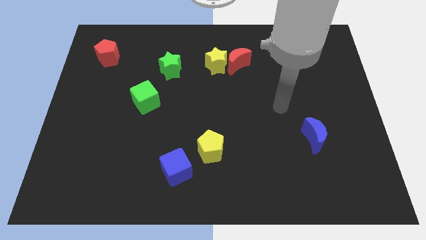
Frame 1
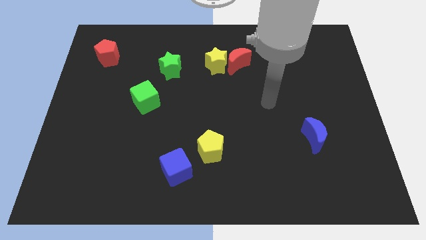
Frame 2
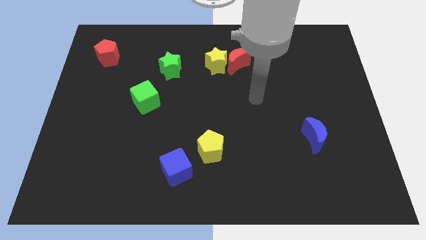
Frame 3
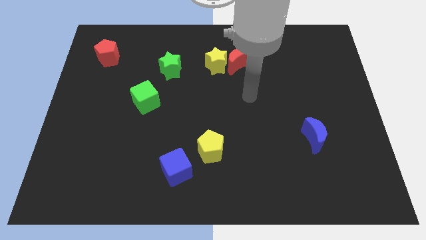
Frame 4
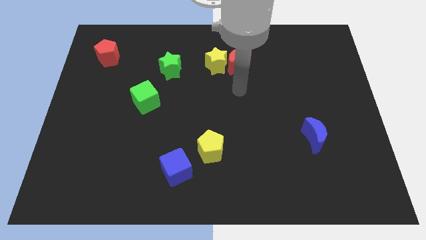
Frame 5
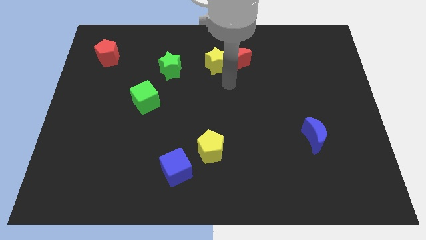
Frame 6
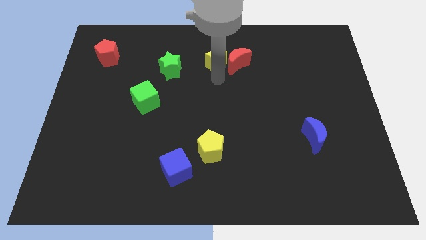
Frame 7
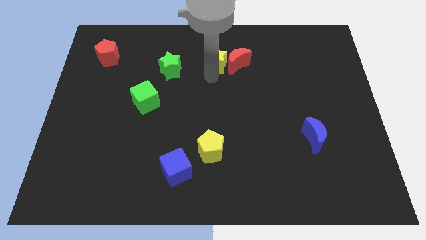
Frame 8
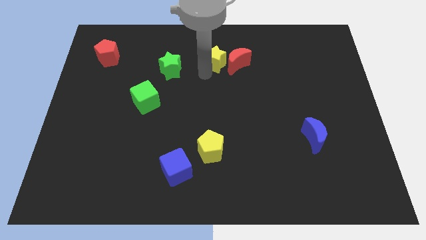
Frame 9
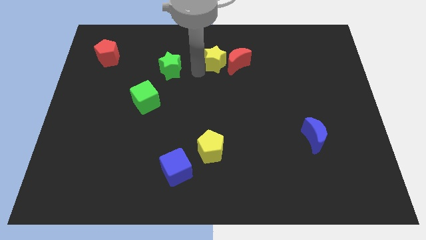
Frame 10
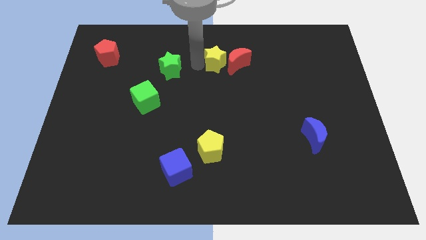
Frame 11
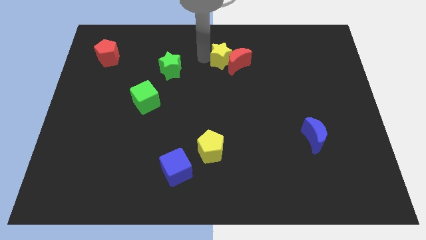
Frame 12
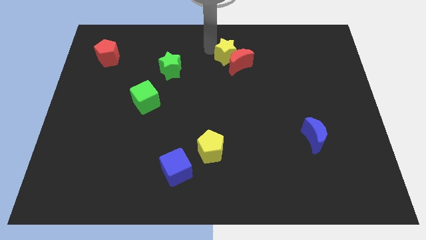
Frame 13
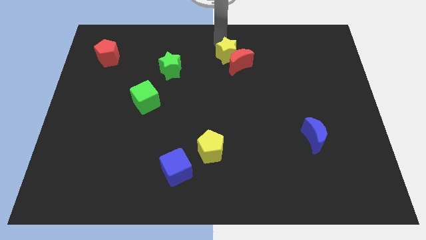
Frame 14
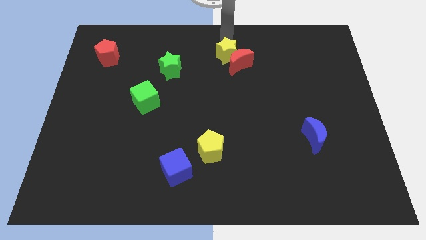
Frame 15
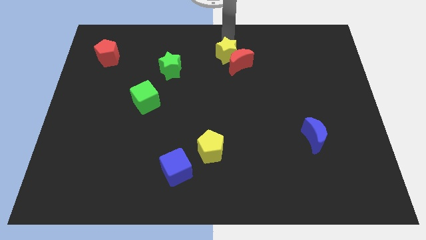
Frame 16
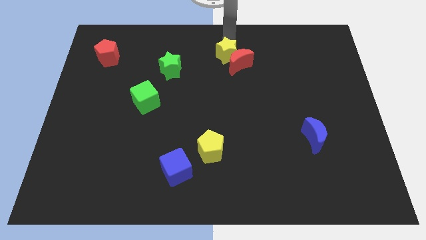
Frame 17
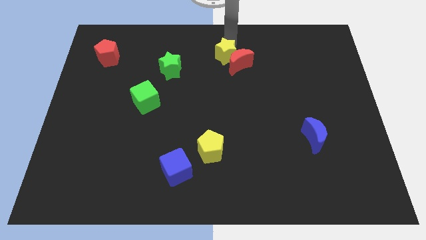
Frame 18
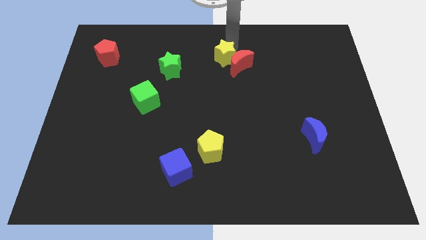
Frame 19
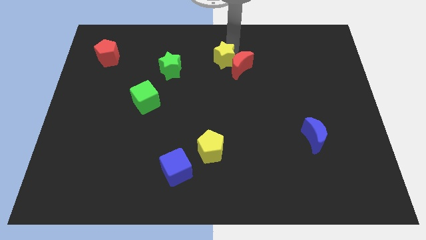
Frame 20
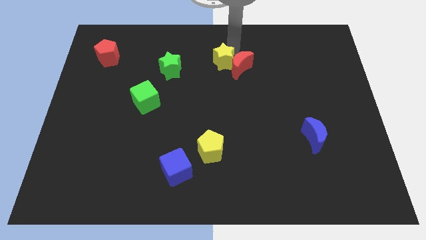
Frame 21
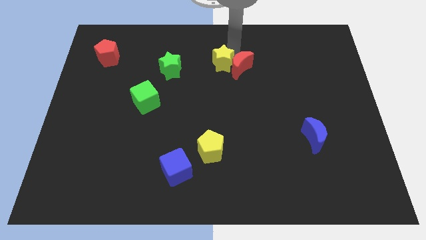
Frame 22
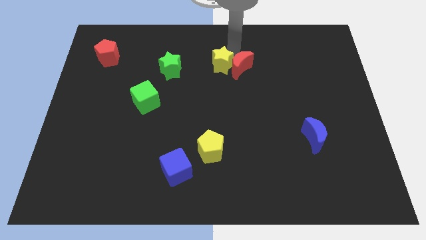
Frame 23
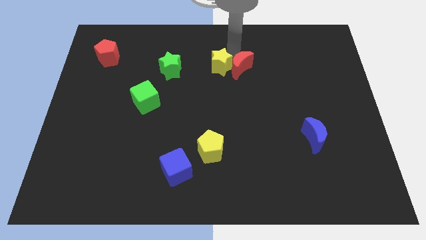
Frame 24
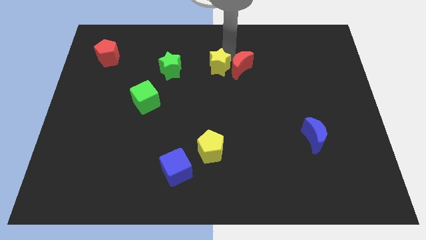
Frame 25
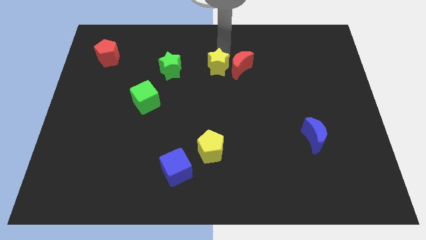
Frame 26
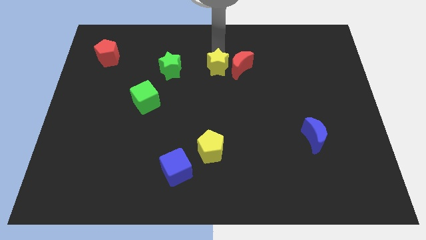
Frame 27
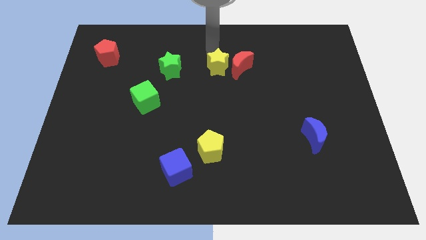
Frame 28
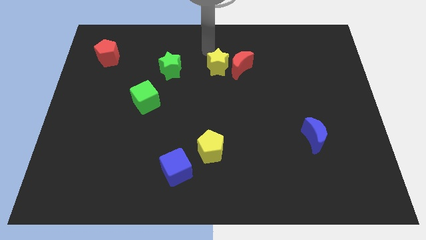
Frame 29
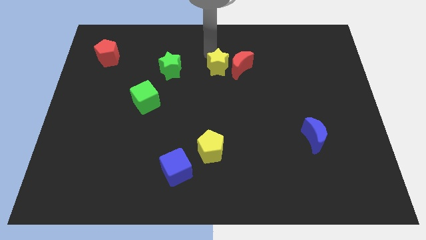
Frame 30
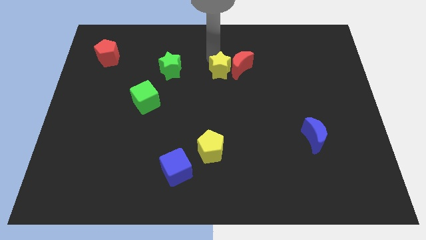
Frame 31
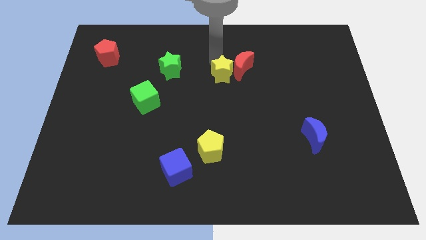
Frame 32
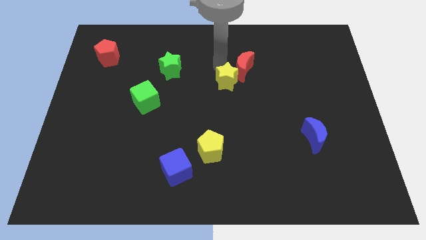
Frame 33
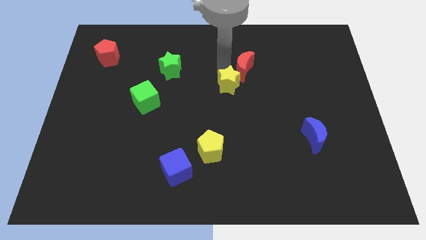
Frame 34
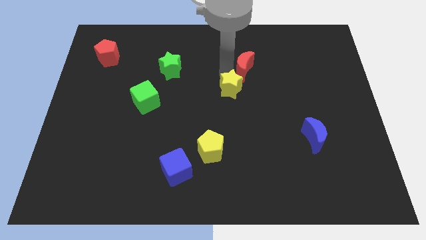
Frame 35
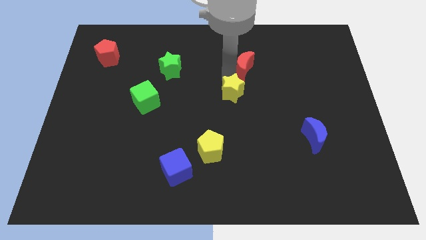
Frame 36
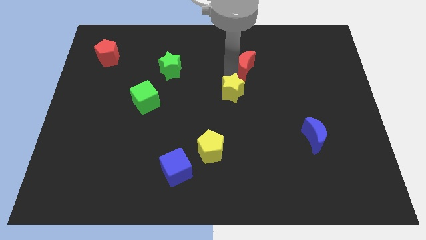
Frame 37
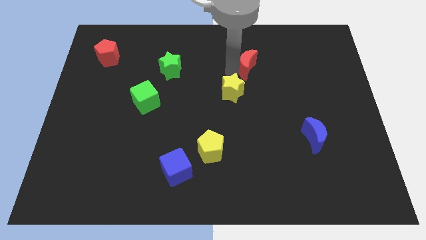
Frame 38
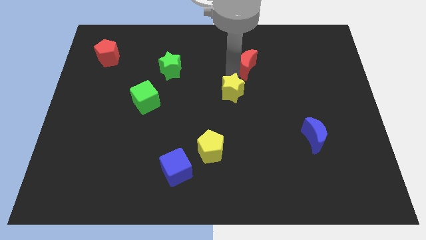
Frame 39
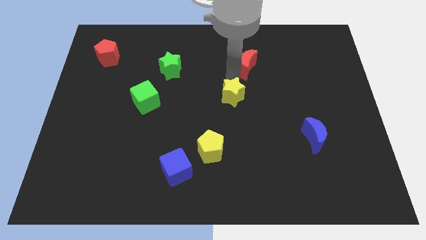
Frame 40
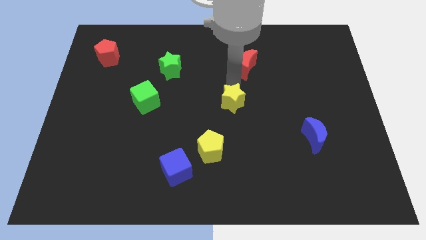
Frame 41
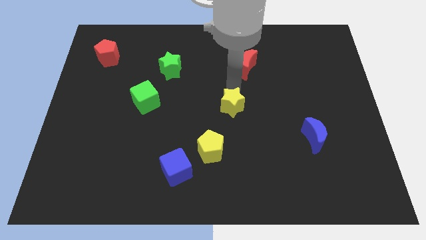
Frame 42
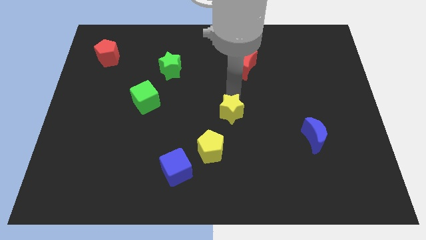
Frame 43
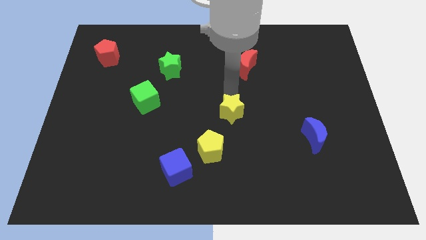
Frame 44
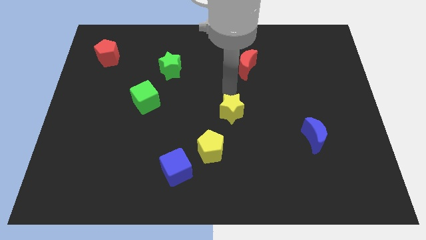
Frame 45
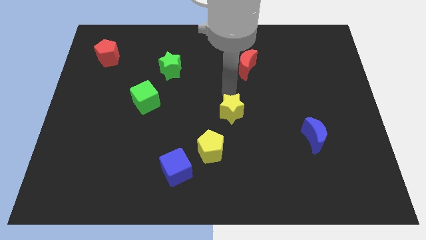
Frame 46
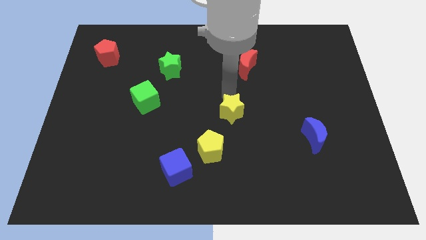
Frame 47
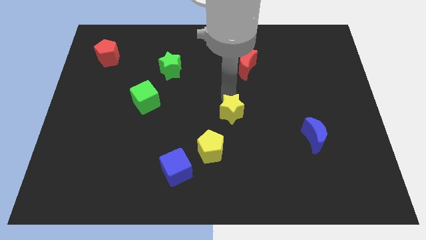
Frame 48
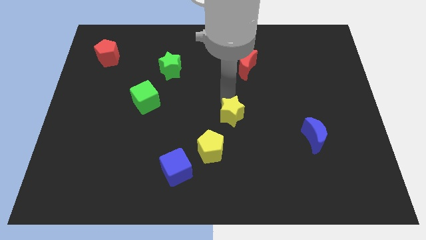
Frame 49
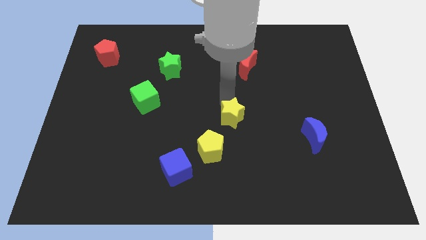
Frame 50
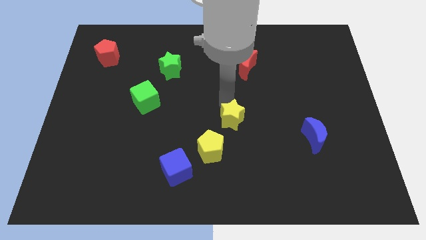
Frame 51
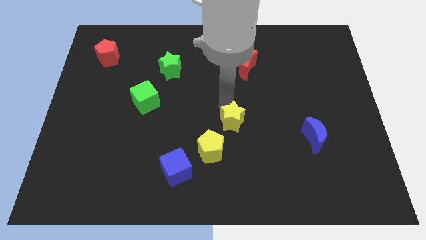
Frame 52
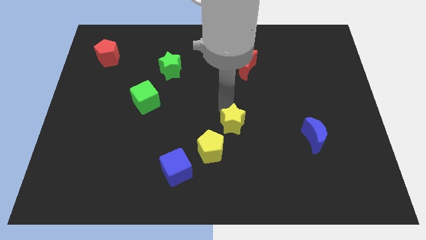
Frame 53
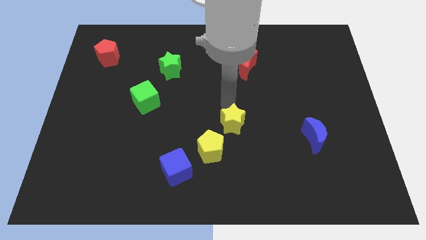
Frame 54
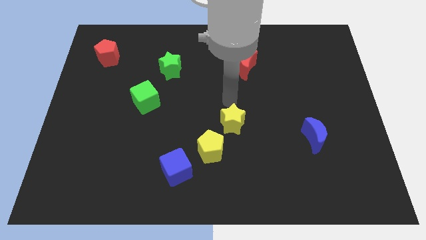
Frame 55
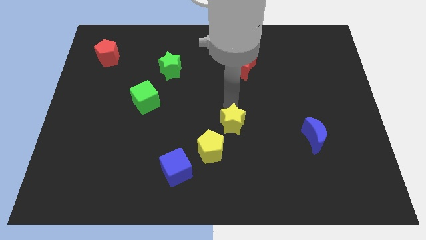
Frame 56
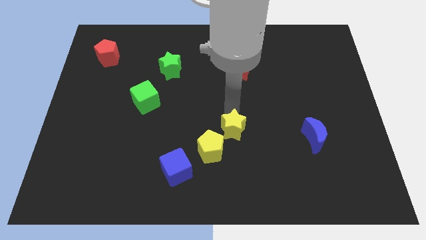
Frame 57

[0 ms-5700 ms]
push the yellow star down

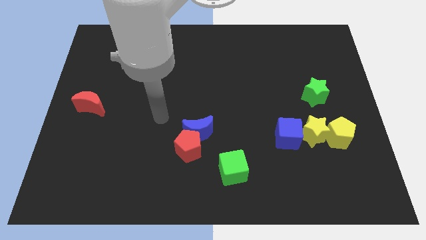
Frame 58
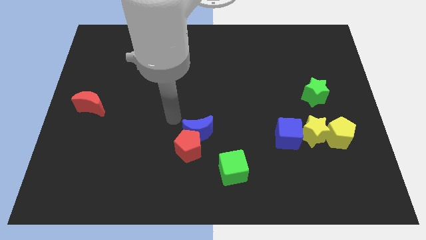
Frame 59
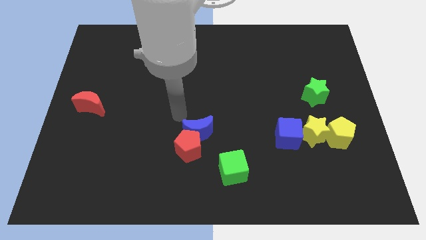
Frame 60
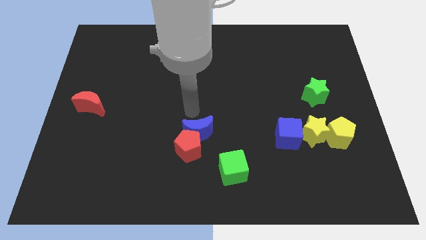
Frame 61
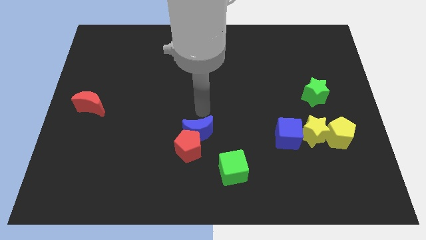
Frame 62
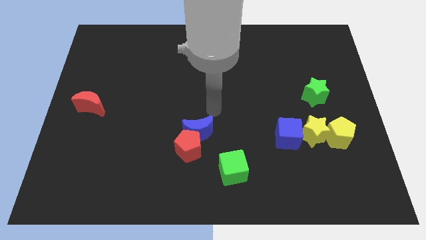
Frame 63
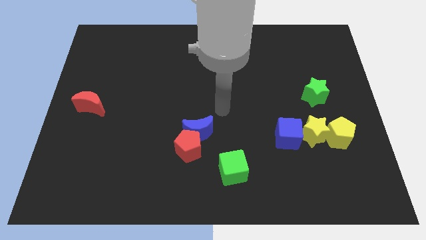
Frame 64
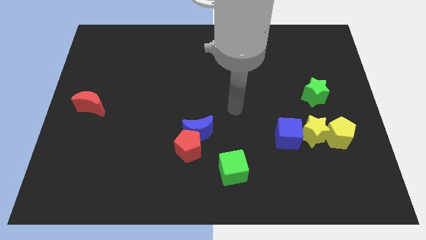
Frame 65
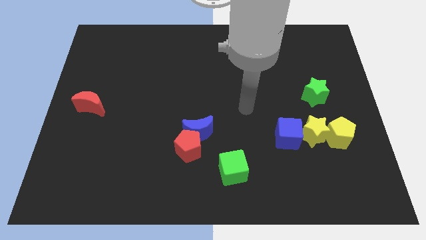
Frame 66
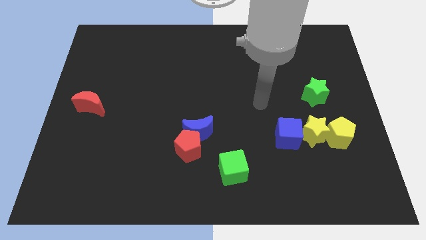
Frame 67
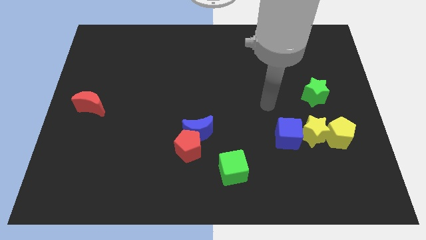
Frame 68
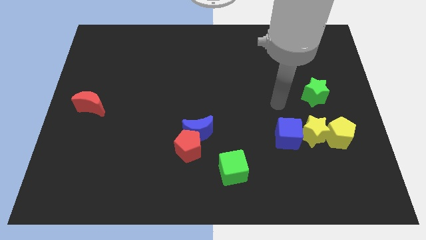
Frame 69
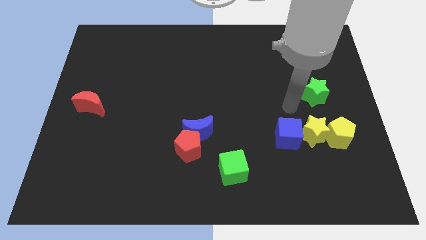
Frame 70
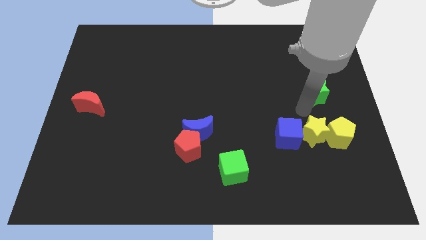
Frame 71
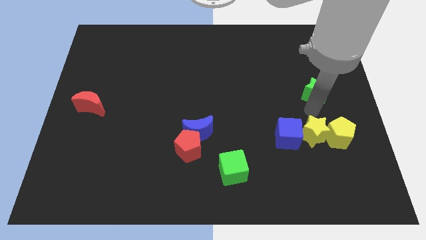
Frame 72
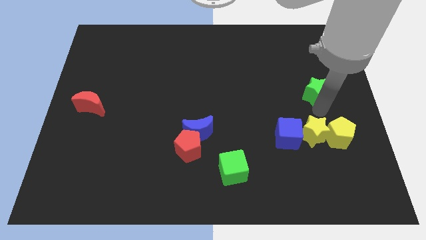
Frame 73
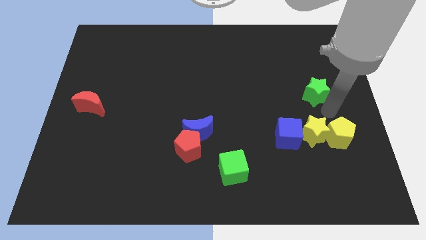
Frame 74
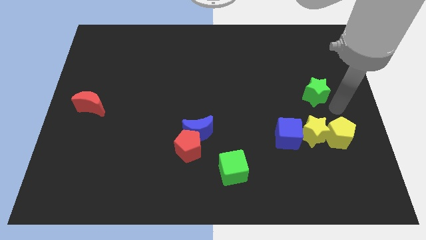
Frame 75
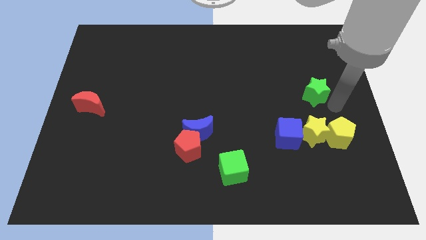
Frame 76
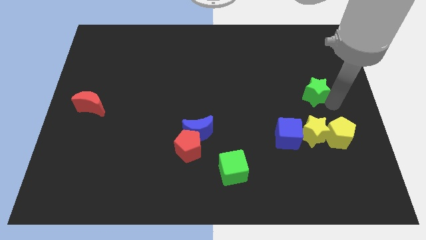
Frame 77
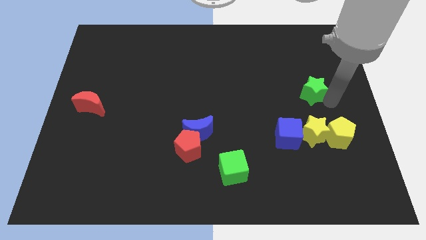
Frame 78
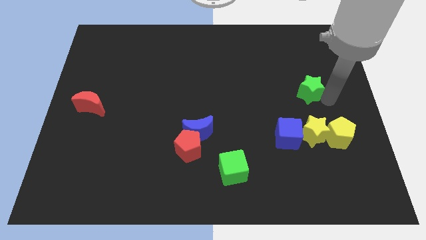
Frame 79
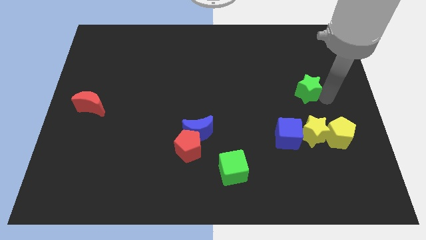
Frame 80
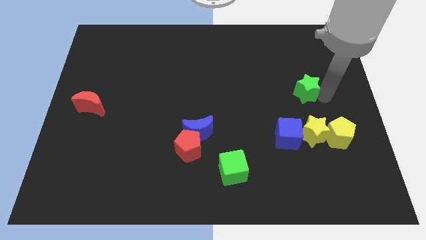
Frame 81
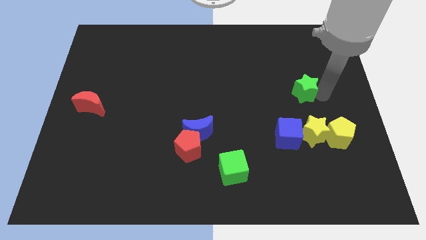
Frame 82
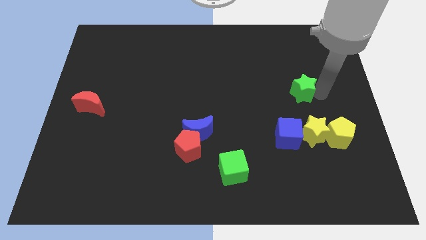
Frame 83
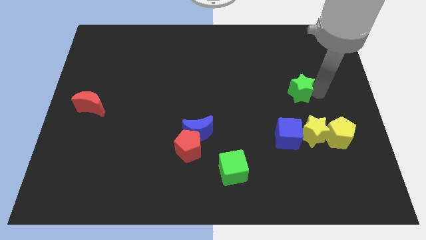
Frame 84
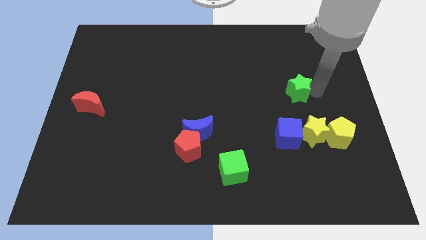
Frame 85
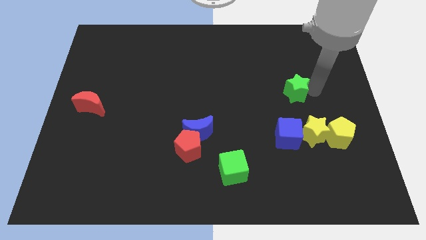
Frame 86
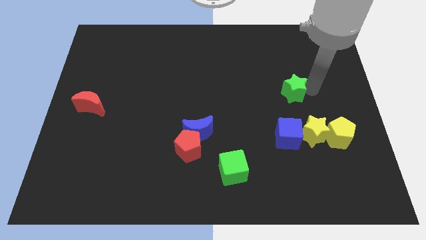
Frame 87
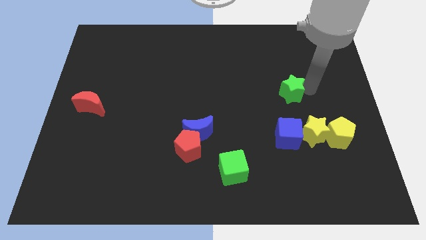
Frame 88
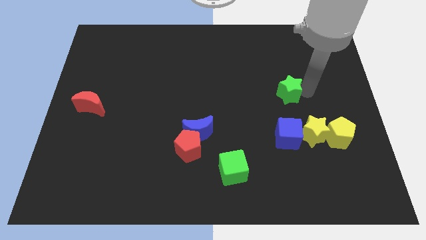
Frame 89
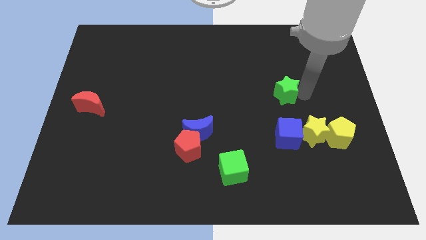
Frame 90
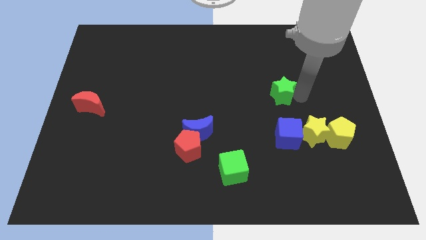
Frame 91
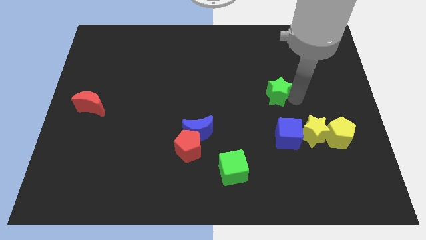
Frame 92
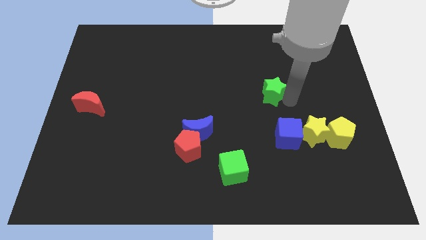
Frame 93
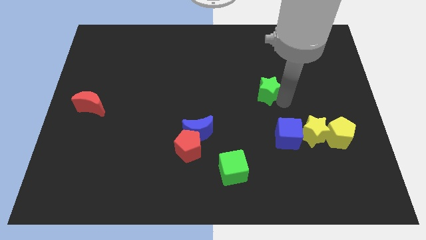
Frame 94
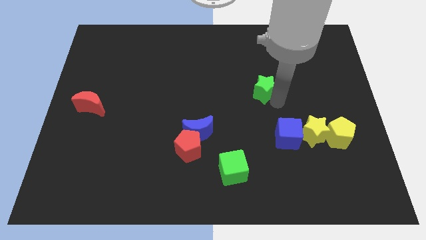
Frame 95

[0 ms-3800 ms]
slightly slide the green star up and left
